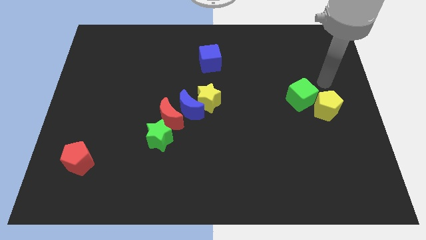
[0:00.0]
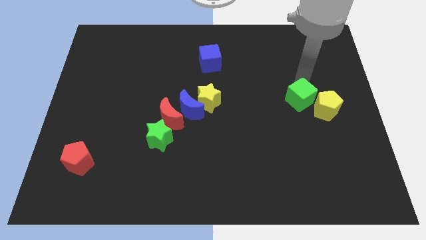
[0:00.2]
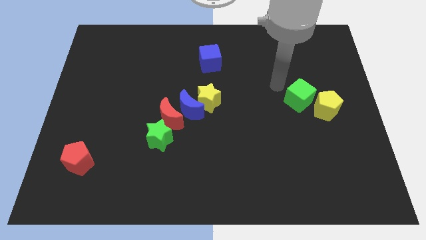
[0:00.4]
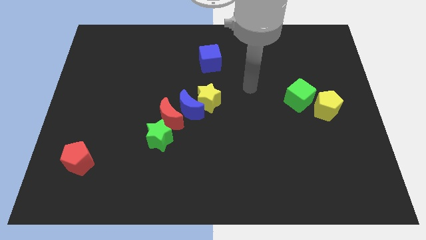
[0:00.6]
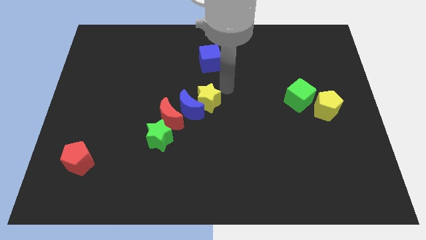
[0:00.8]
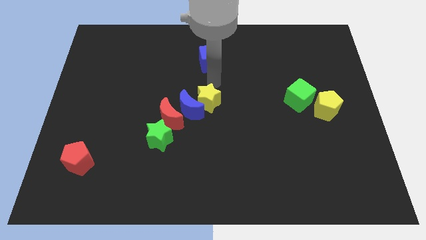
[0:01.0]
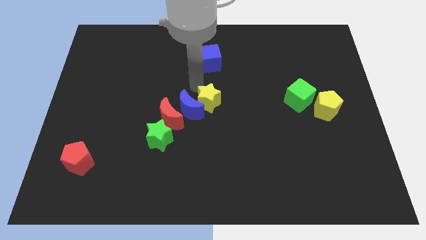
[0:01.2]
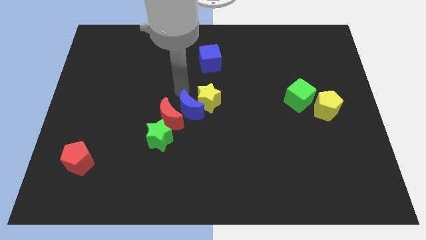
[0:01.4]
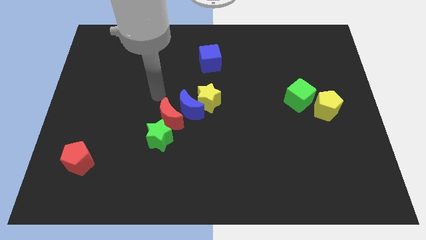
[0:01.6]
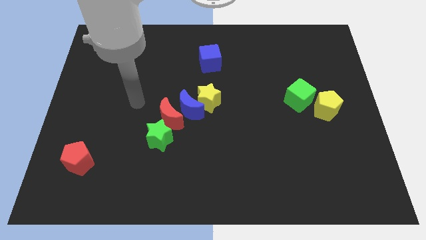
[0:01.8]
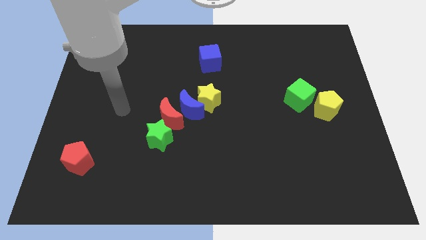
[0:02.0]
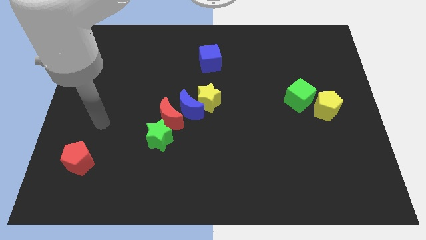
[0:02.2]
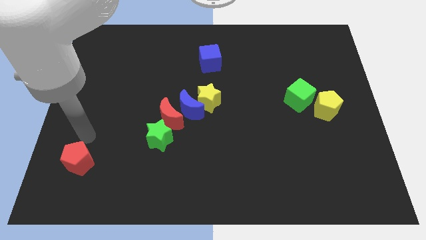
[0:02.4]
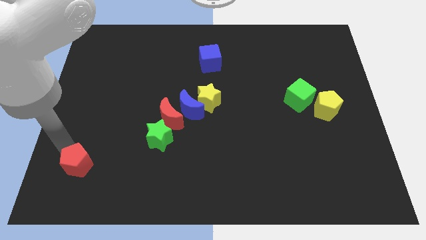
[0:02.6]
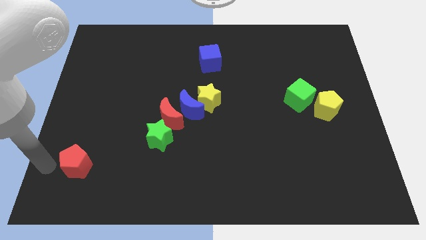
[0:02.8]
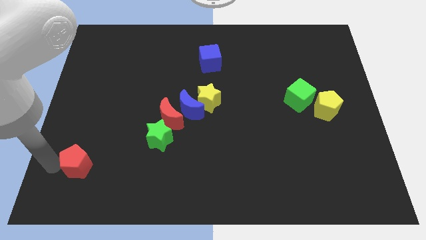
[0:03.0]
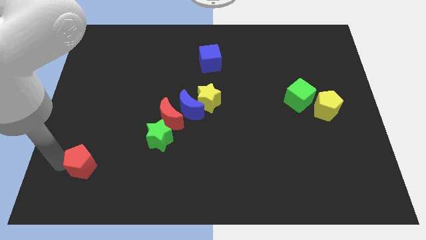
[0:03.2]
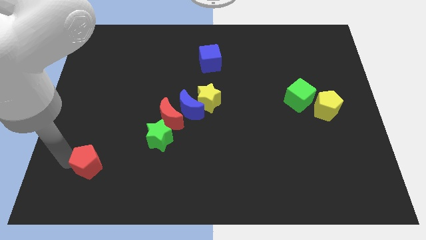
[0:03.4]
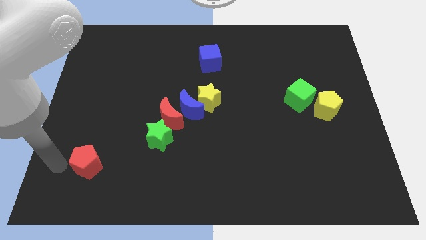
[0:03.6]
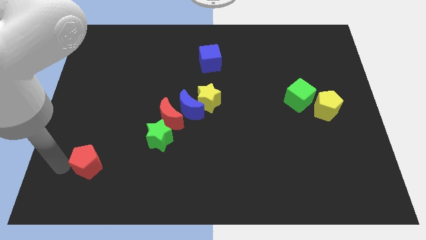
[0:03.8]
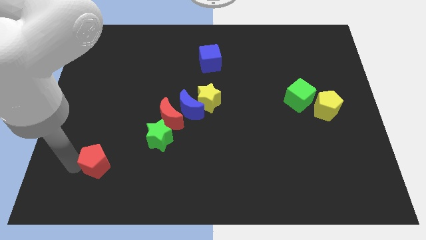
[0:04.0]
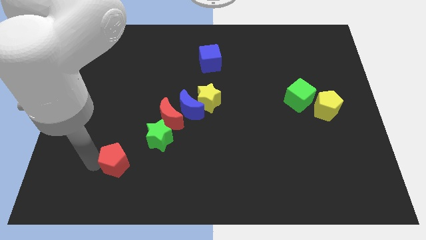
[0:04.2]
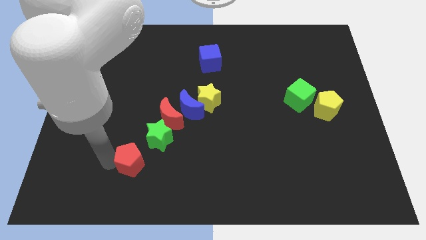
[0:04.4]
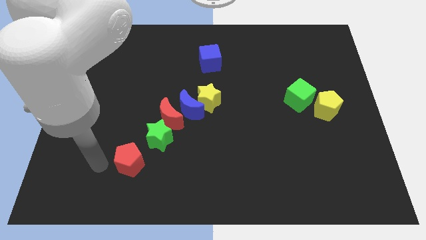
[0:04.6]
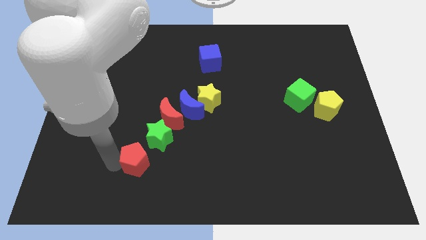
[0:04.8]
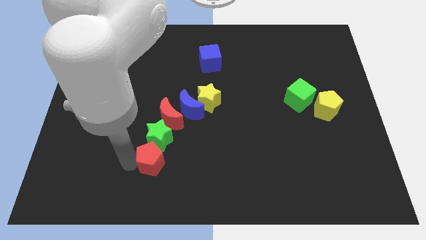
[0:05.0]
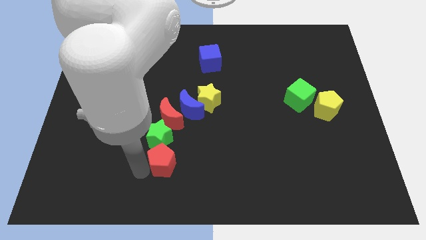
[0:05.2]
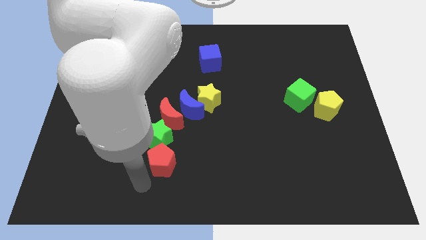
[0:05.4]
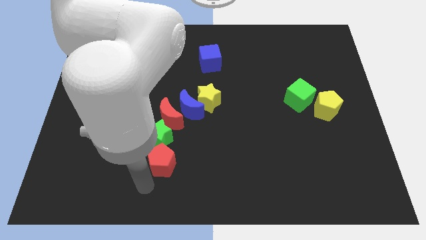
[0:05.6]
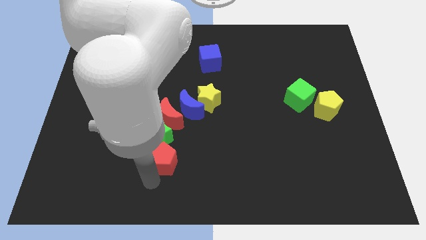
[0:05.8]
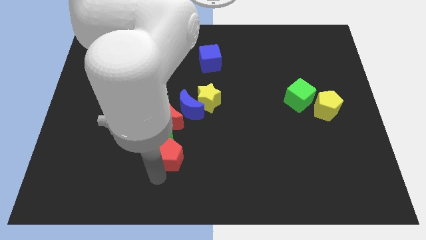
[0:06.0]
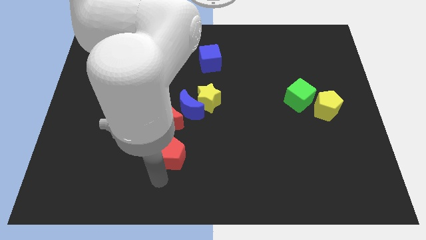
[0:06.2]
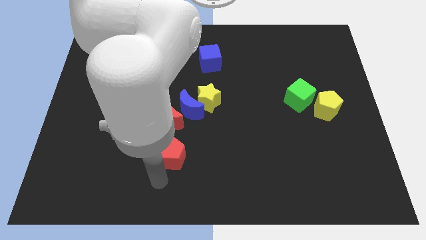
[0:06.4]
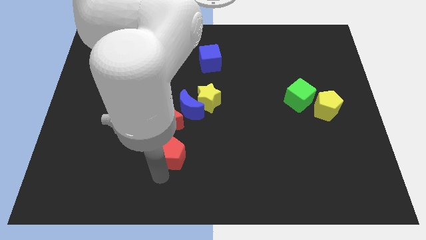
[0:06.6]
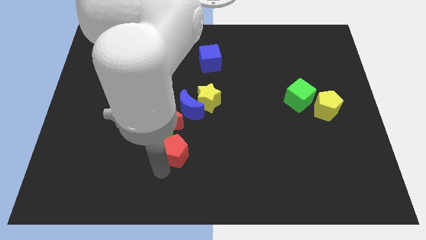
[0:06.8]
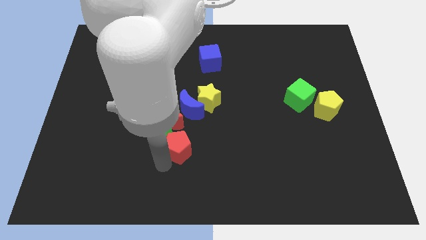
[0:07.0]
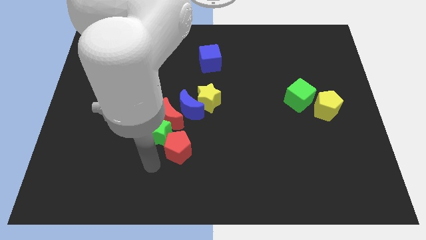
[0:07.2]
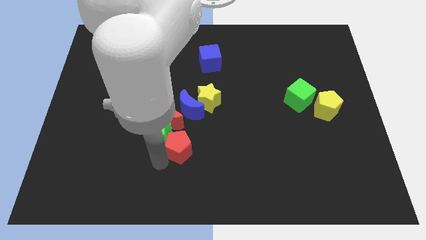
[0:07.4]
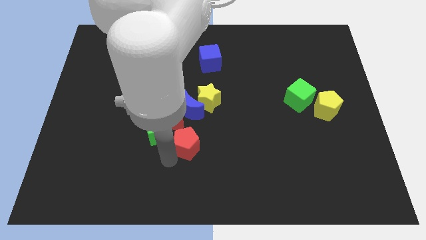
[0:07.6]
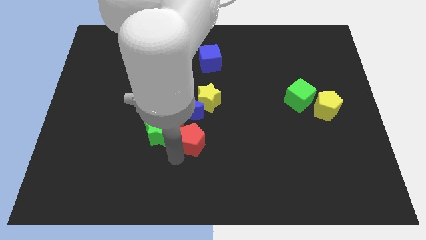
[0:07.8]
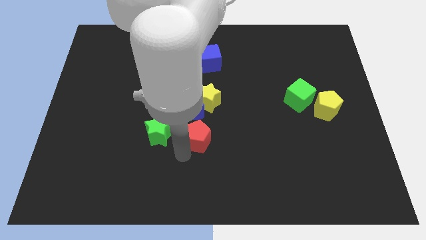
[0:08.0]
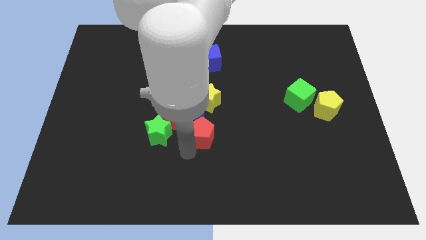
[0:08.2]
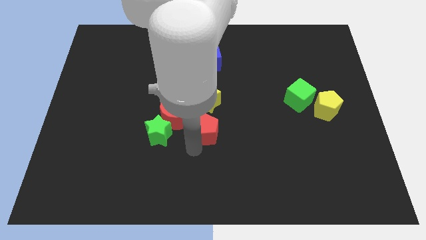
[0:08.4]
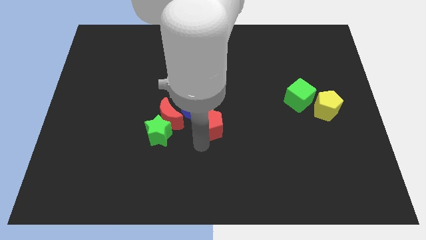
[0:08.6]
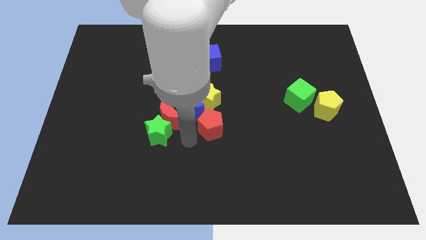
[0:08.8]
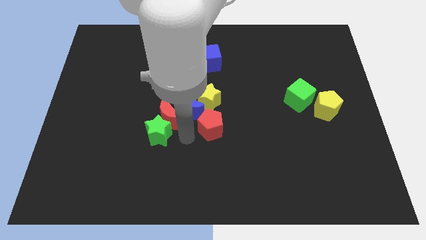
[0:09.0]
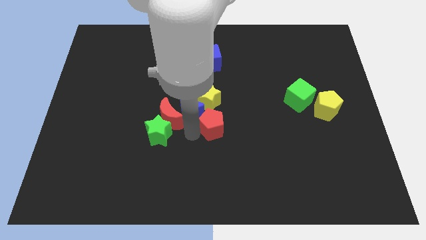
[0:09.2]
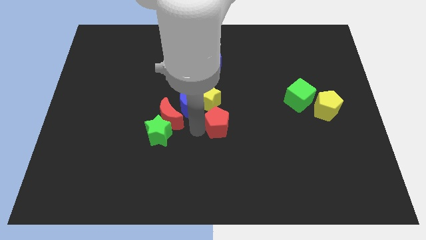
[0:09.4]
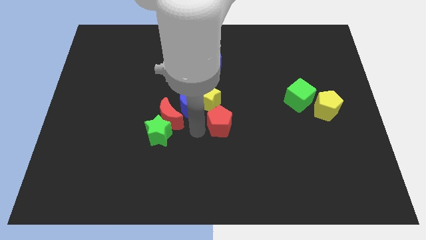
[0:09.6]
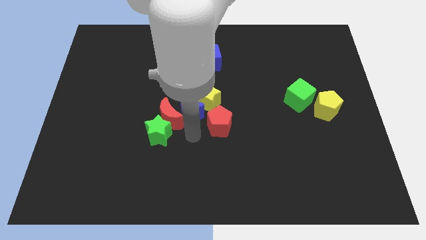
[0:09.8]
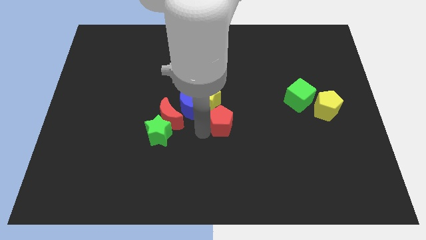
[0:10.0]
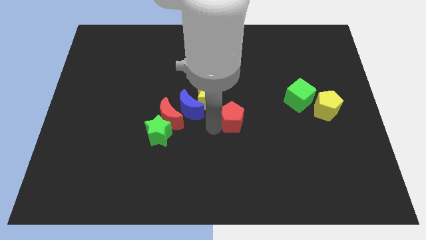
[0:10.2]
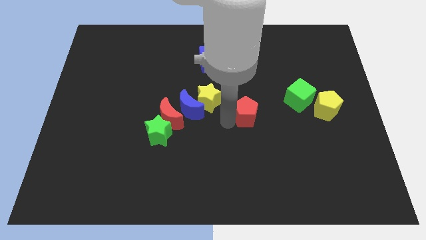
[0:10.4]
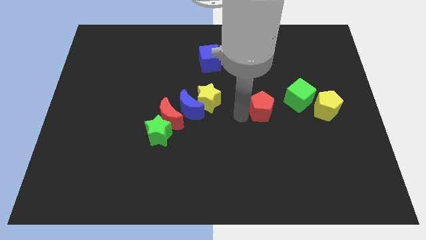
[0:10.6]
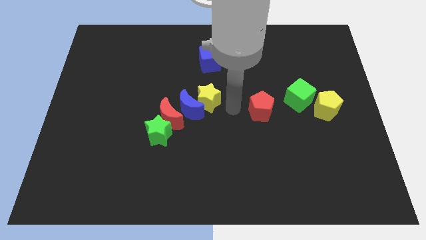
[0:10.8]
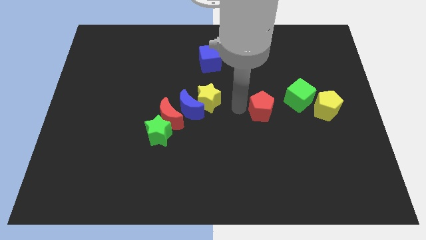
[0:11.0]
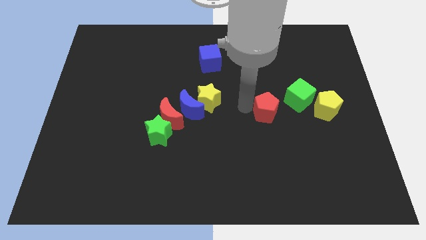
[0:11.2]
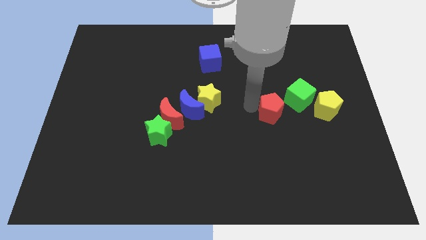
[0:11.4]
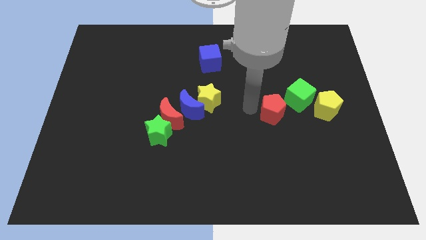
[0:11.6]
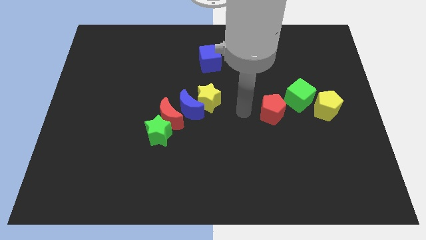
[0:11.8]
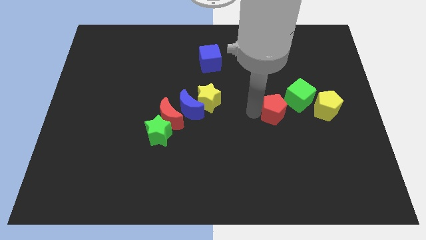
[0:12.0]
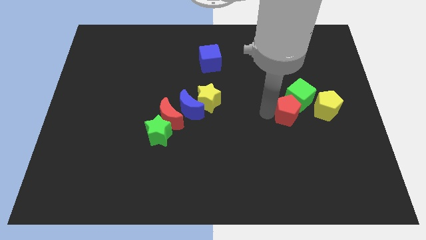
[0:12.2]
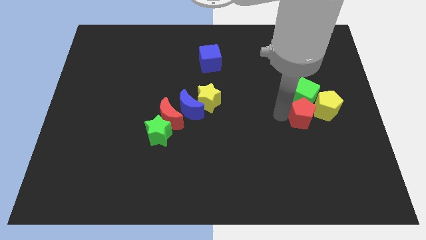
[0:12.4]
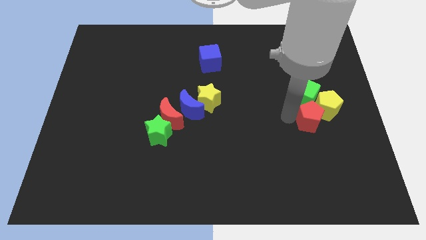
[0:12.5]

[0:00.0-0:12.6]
move the red pentagon to the yellow pentagon

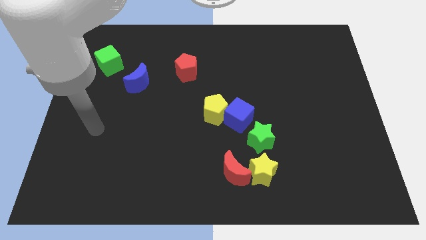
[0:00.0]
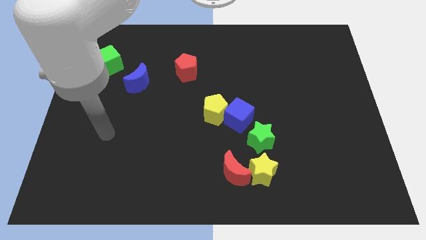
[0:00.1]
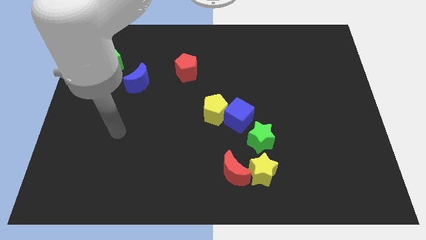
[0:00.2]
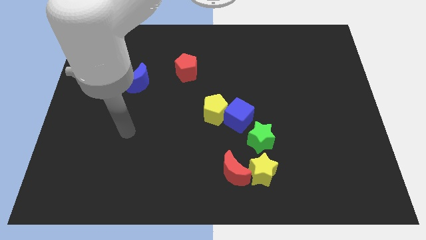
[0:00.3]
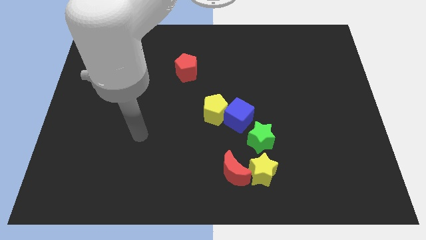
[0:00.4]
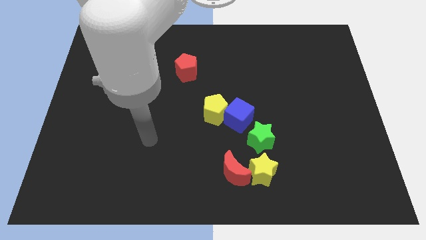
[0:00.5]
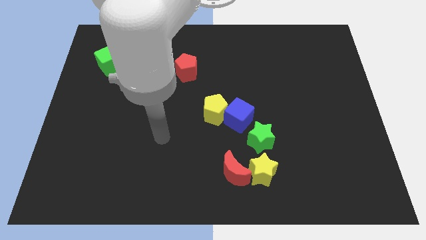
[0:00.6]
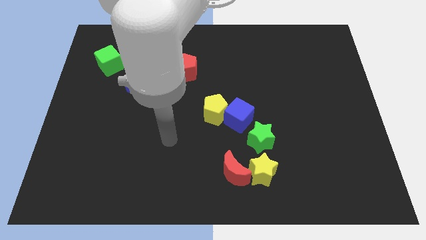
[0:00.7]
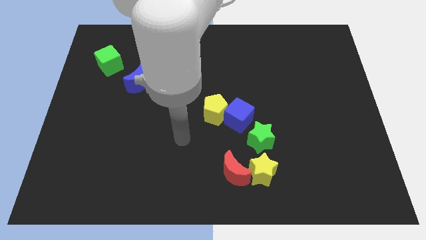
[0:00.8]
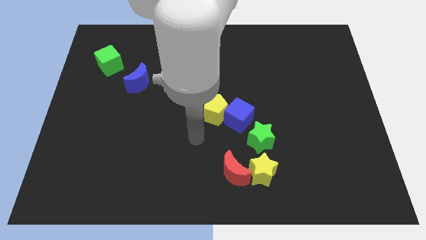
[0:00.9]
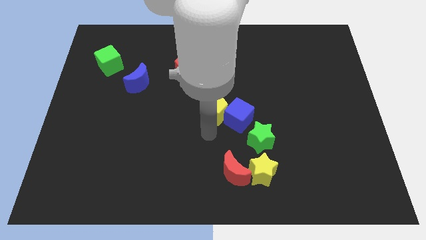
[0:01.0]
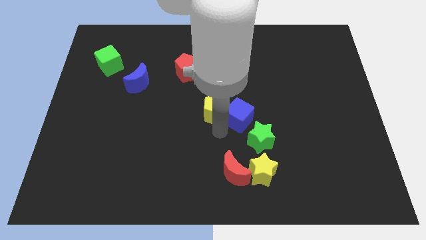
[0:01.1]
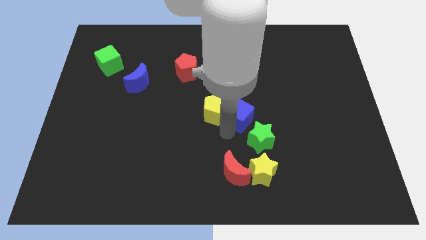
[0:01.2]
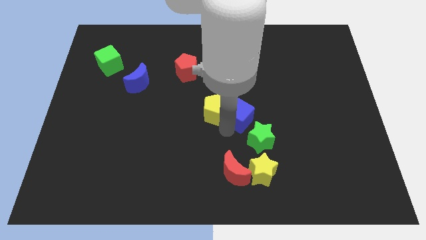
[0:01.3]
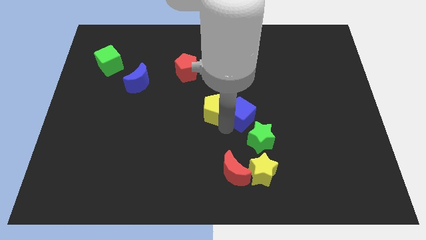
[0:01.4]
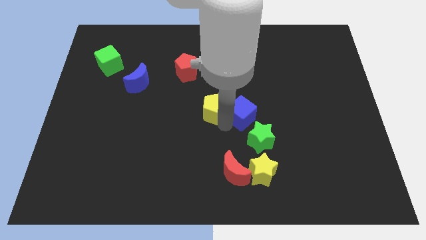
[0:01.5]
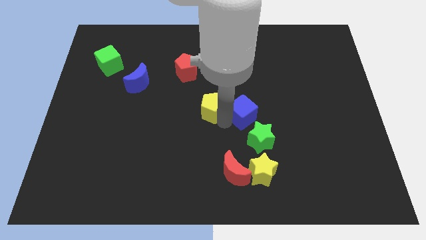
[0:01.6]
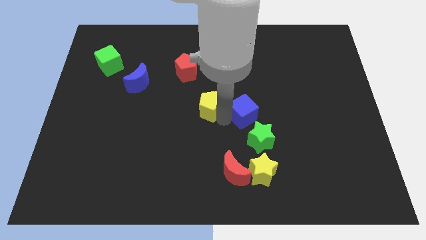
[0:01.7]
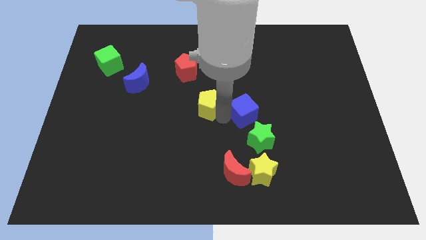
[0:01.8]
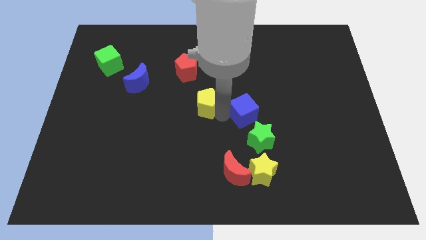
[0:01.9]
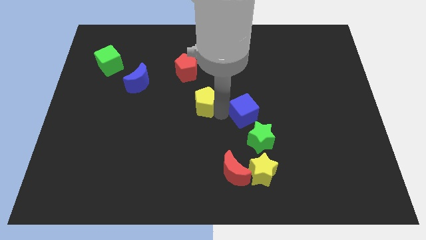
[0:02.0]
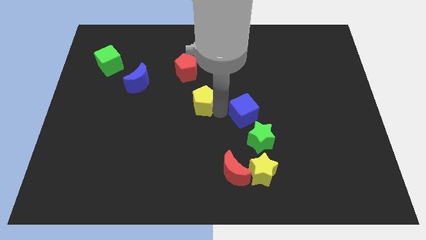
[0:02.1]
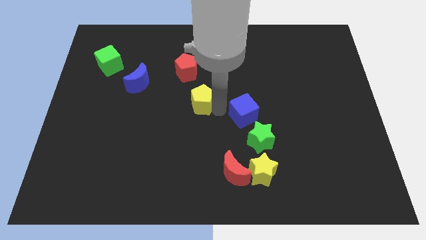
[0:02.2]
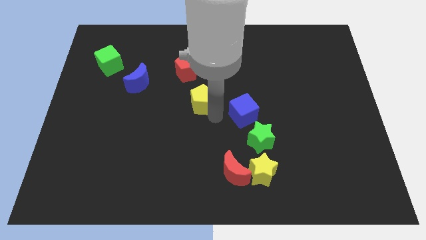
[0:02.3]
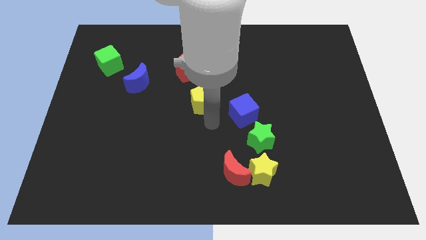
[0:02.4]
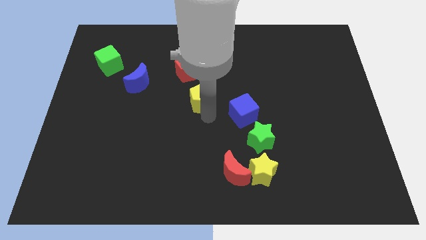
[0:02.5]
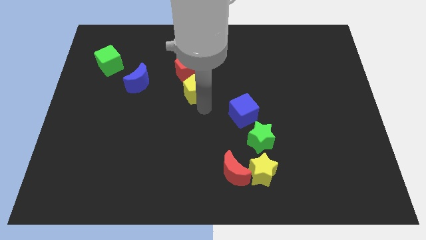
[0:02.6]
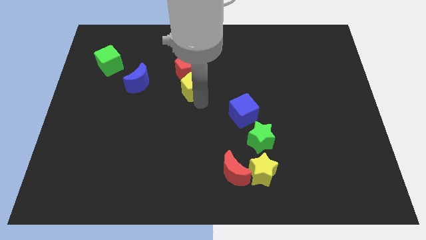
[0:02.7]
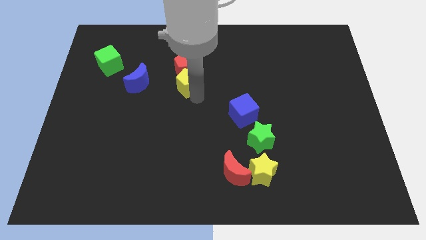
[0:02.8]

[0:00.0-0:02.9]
push the yellow pentagon towards the red pentagon
